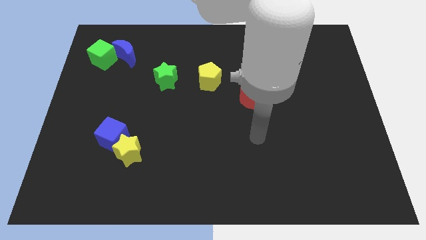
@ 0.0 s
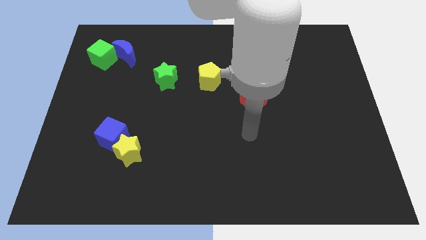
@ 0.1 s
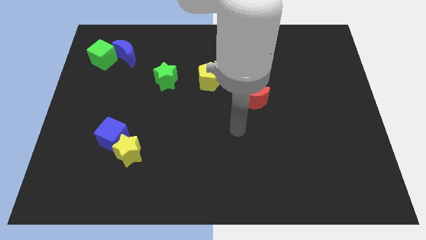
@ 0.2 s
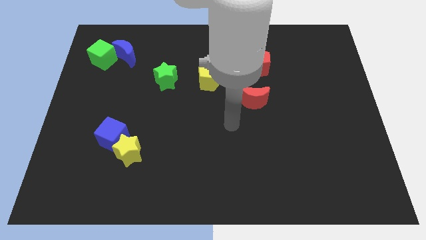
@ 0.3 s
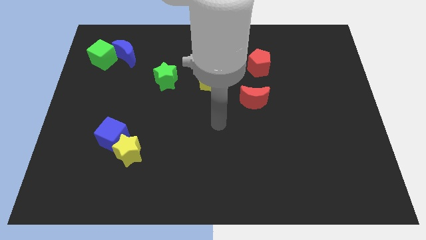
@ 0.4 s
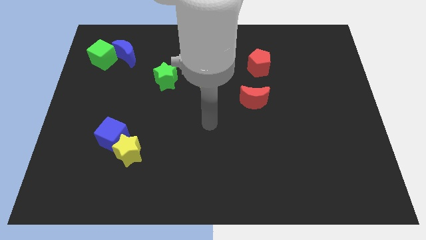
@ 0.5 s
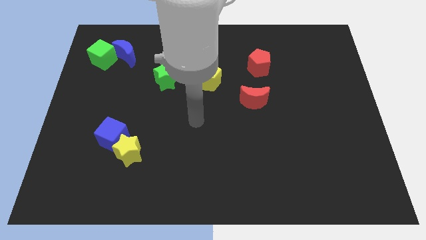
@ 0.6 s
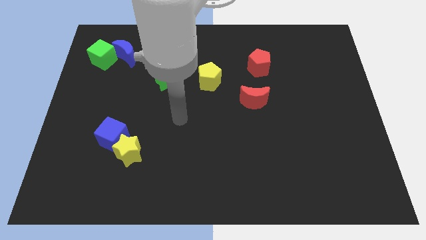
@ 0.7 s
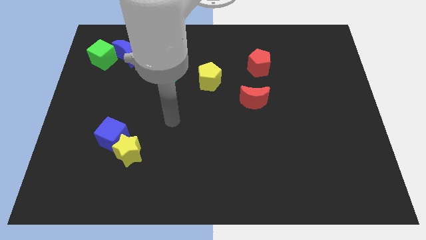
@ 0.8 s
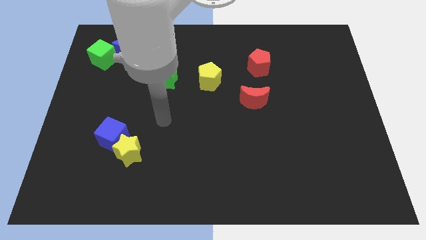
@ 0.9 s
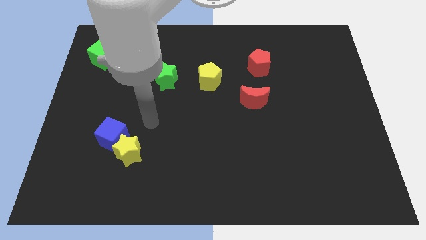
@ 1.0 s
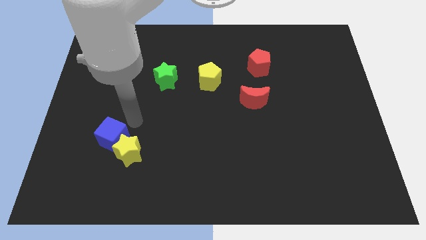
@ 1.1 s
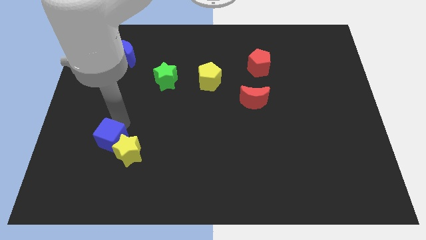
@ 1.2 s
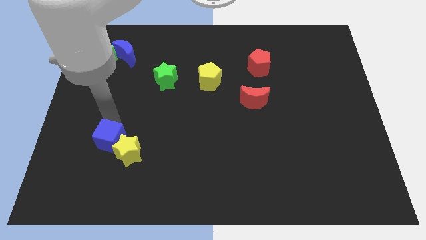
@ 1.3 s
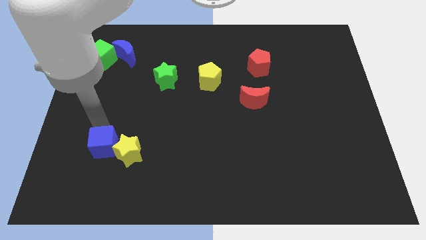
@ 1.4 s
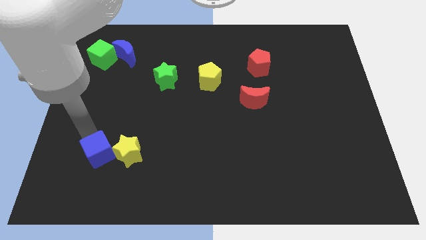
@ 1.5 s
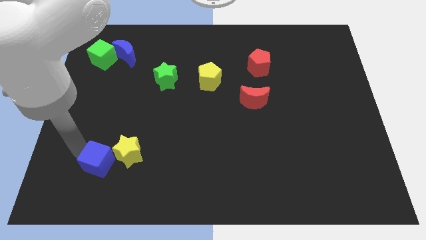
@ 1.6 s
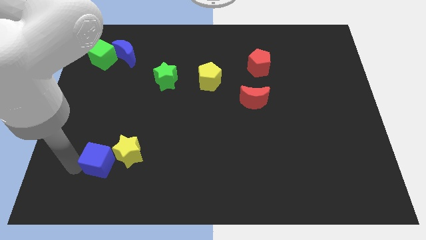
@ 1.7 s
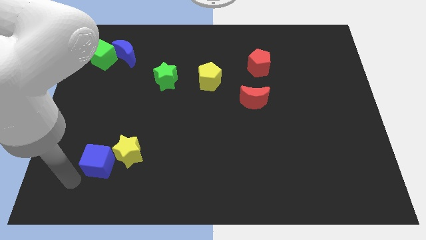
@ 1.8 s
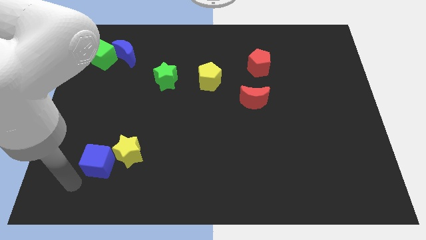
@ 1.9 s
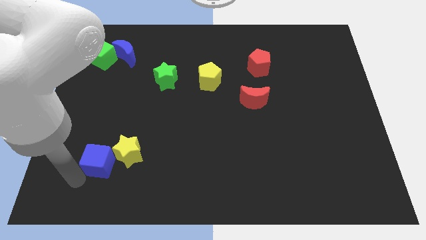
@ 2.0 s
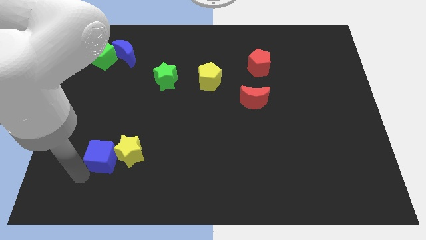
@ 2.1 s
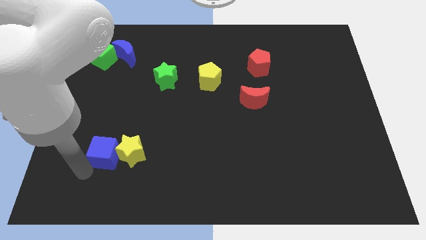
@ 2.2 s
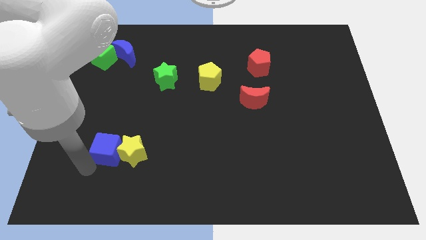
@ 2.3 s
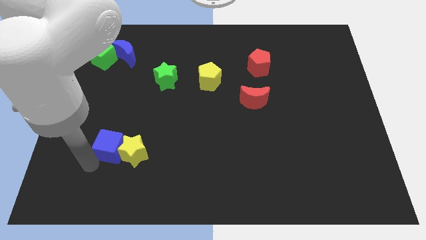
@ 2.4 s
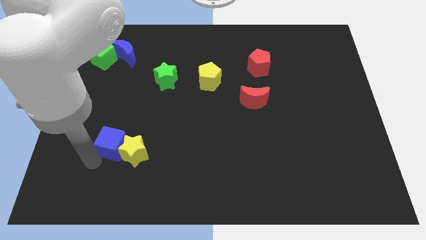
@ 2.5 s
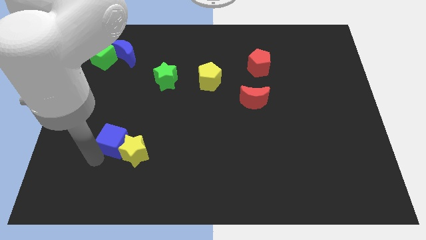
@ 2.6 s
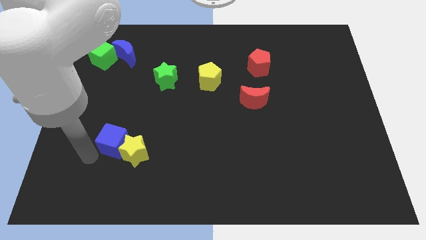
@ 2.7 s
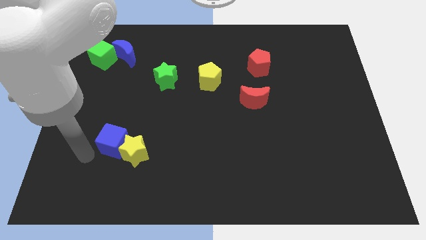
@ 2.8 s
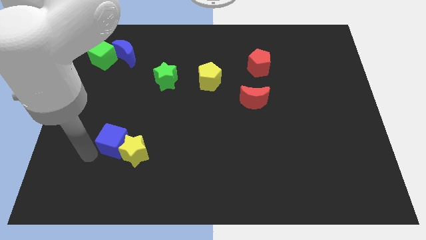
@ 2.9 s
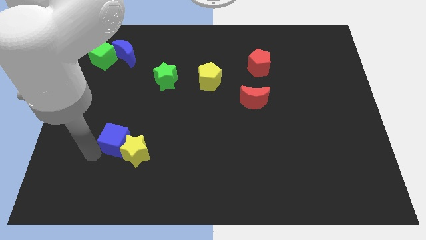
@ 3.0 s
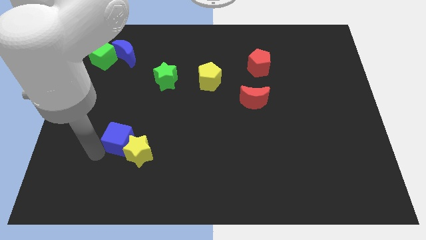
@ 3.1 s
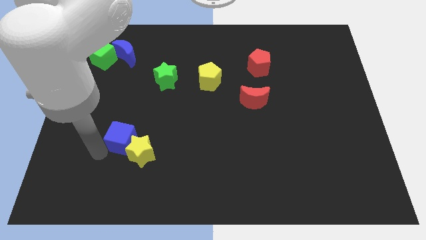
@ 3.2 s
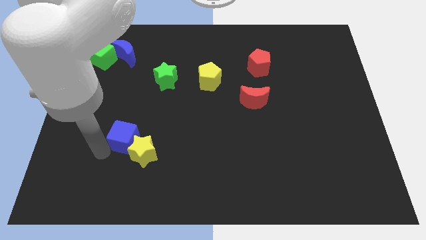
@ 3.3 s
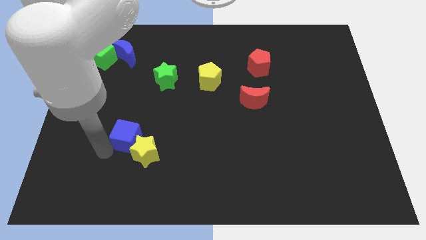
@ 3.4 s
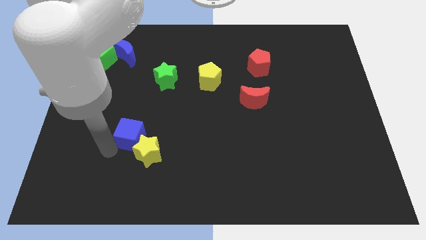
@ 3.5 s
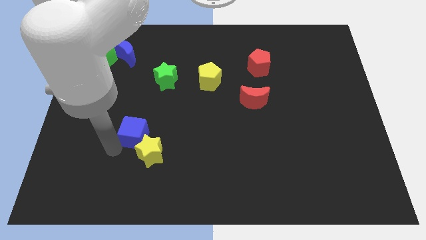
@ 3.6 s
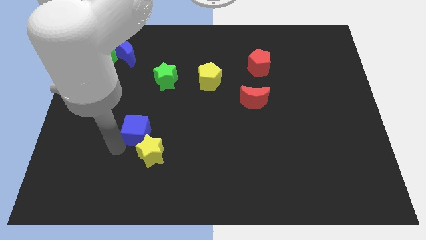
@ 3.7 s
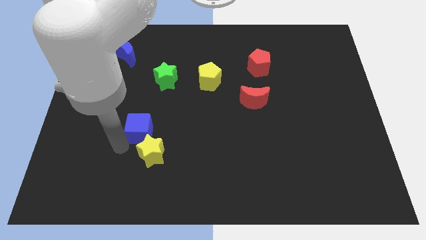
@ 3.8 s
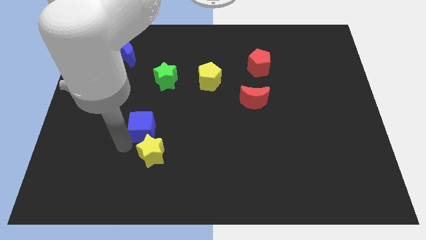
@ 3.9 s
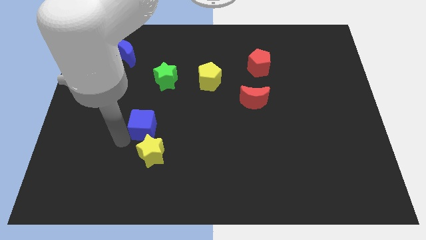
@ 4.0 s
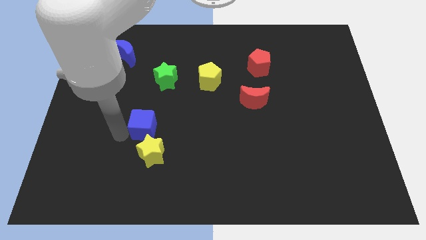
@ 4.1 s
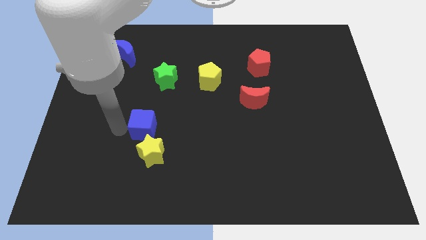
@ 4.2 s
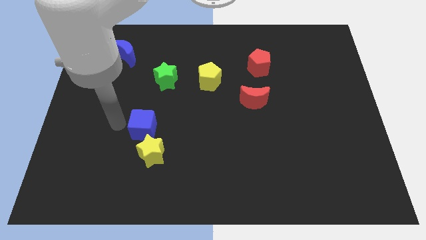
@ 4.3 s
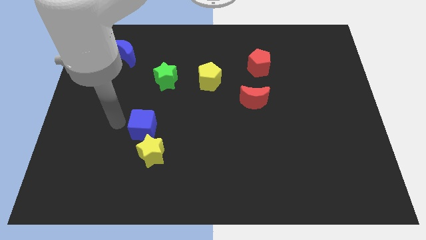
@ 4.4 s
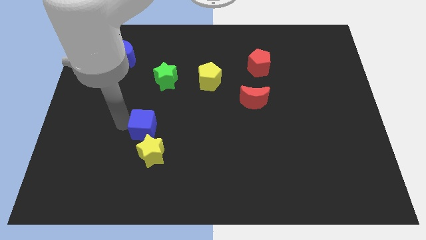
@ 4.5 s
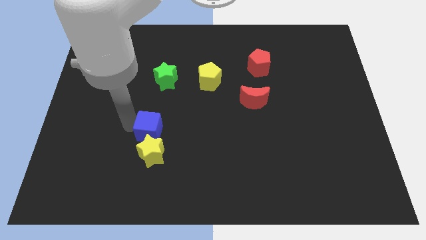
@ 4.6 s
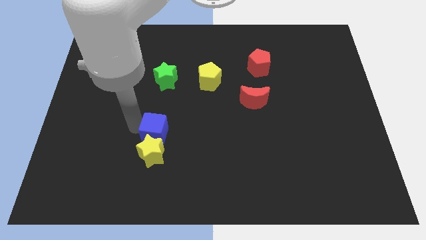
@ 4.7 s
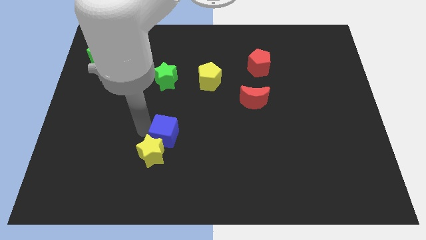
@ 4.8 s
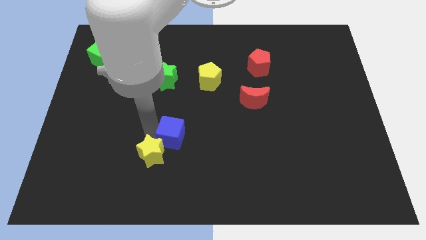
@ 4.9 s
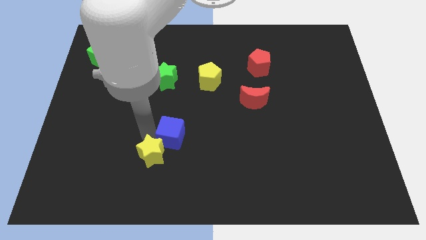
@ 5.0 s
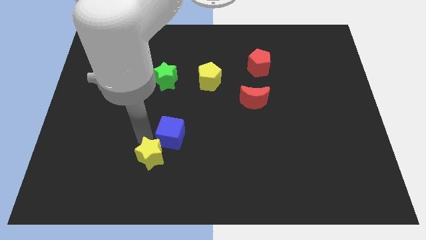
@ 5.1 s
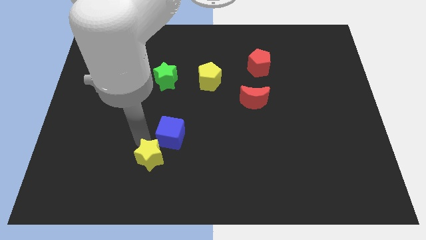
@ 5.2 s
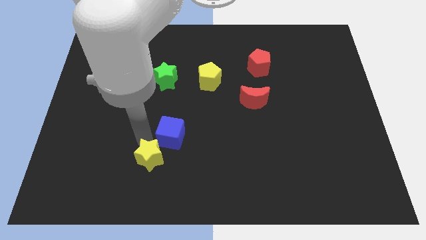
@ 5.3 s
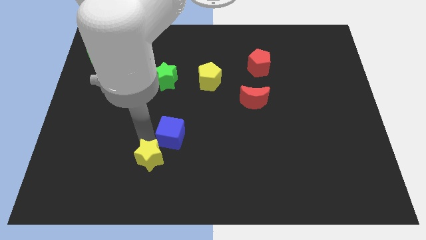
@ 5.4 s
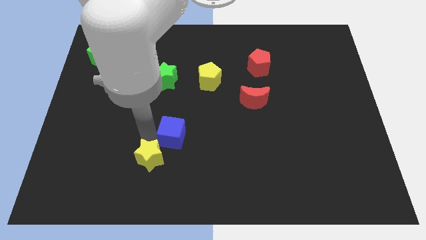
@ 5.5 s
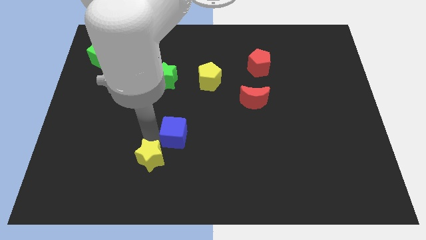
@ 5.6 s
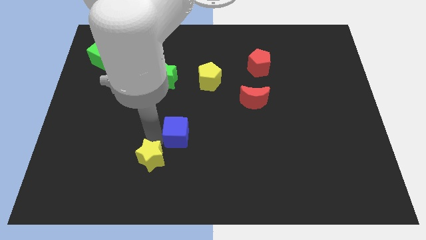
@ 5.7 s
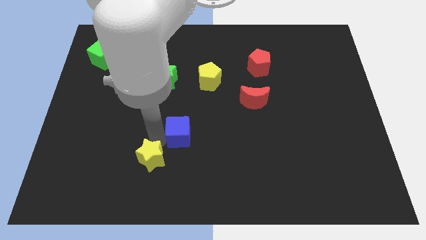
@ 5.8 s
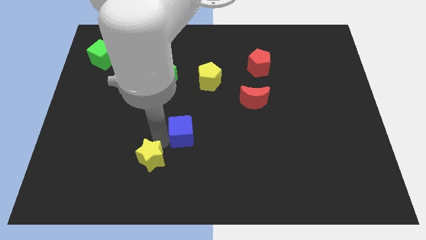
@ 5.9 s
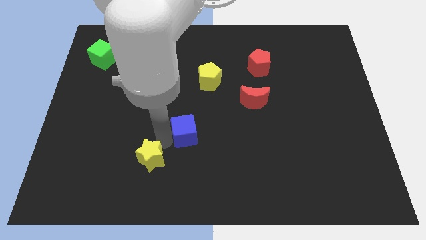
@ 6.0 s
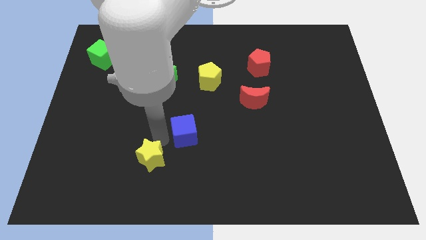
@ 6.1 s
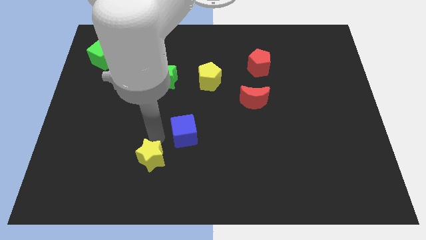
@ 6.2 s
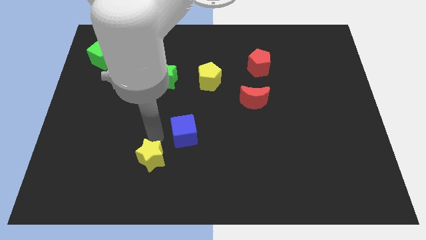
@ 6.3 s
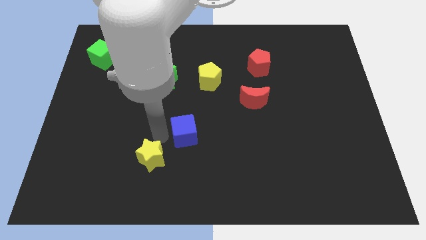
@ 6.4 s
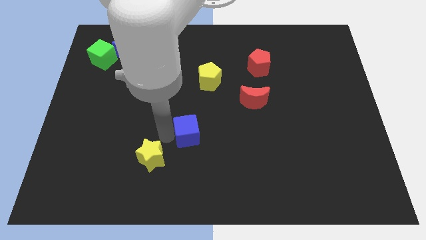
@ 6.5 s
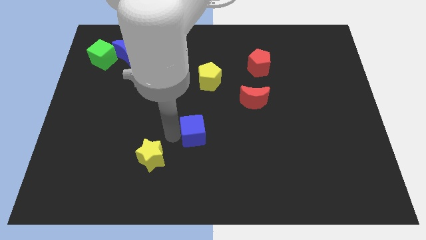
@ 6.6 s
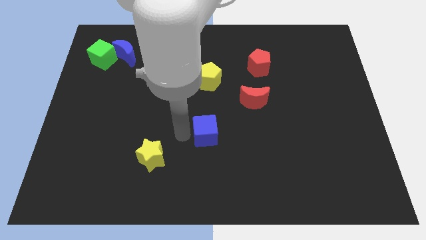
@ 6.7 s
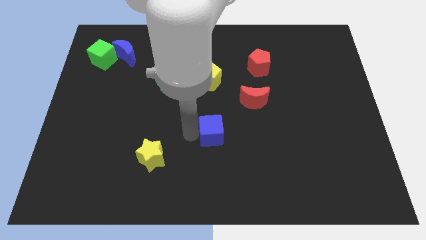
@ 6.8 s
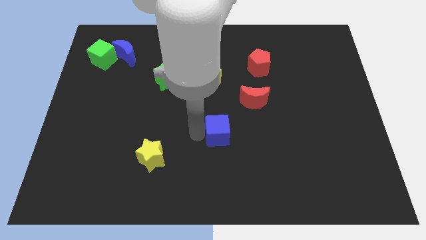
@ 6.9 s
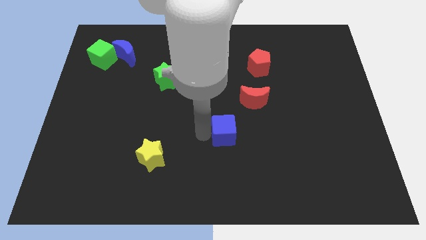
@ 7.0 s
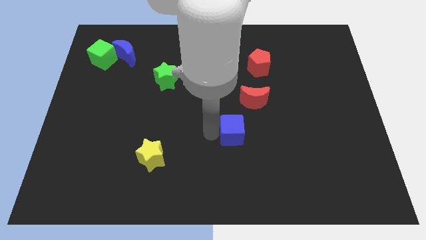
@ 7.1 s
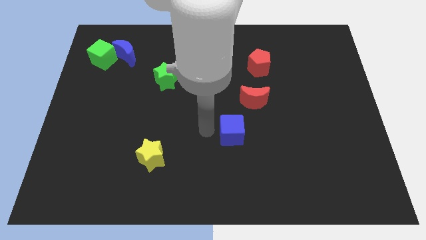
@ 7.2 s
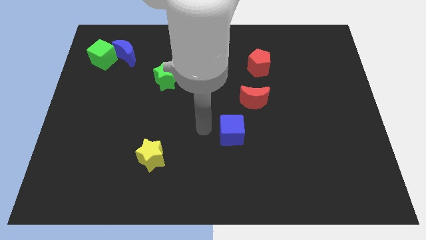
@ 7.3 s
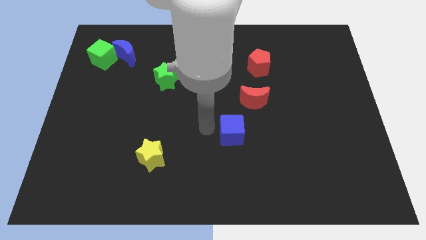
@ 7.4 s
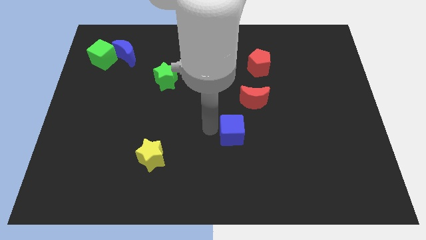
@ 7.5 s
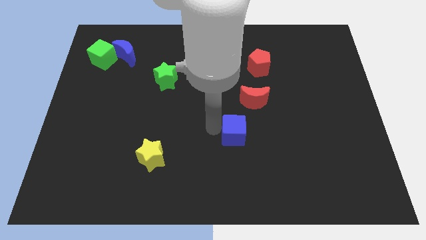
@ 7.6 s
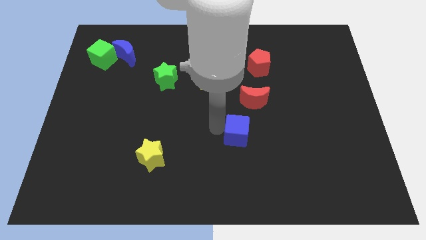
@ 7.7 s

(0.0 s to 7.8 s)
push the blue cube to the bottom of the red moon
